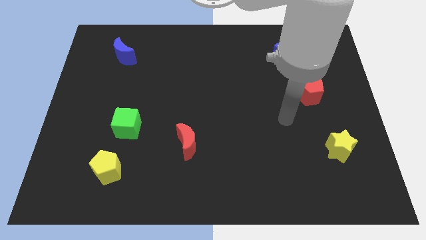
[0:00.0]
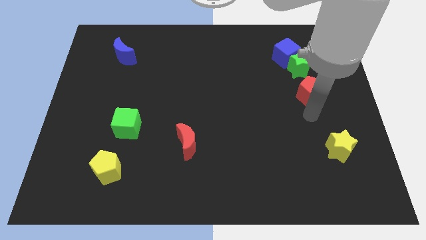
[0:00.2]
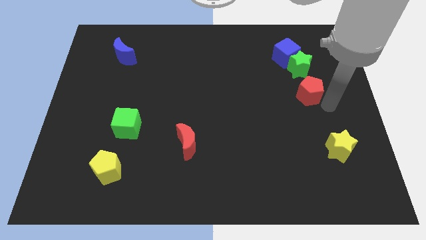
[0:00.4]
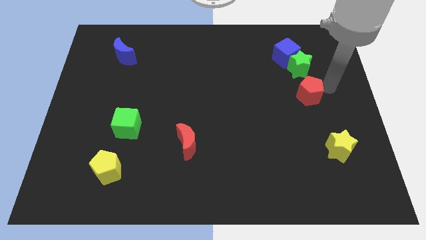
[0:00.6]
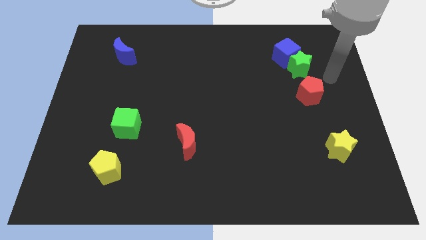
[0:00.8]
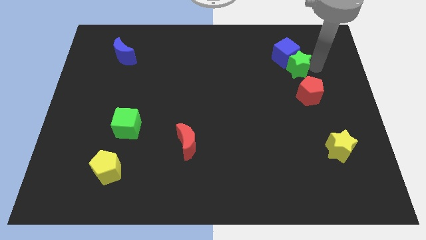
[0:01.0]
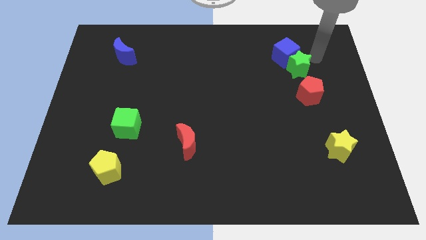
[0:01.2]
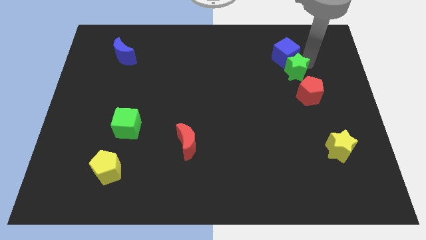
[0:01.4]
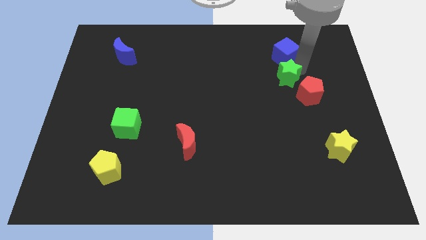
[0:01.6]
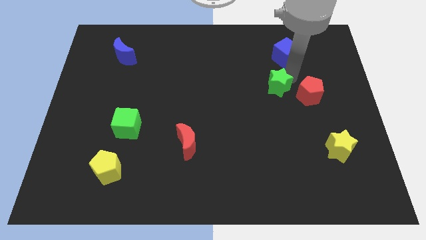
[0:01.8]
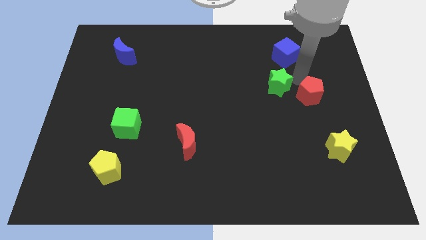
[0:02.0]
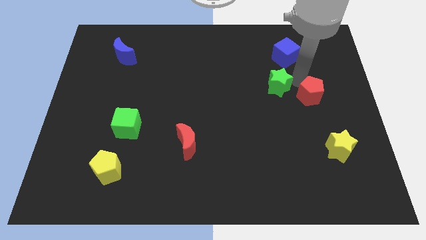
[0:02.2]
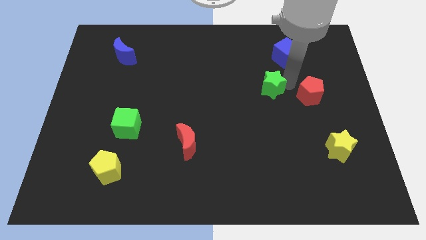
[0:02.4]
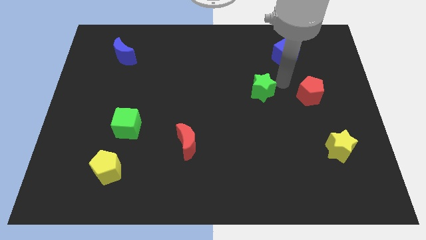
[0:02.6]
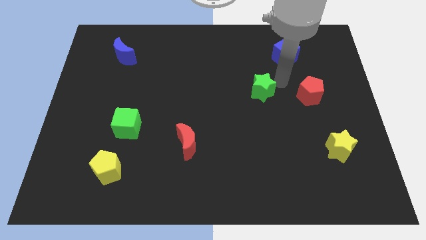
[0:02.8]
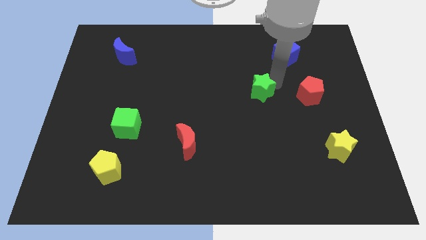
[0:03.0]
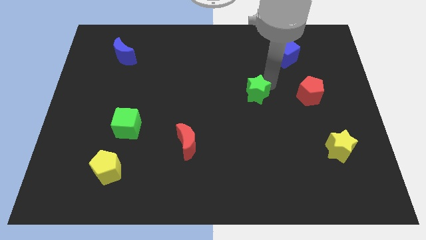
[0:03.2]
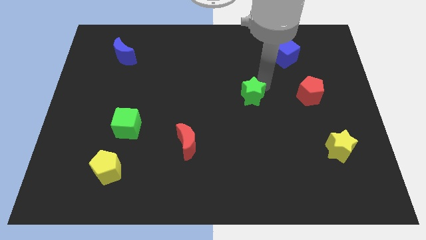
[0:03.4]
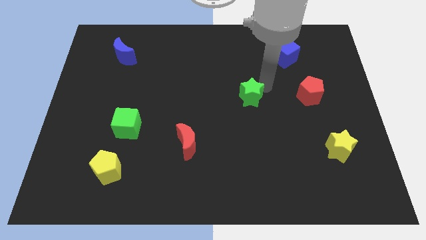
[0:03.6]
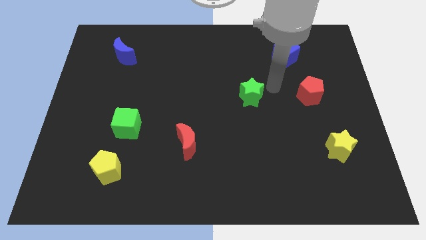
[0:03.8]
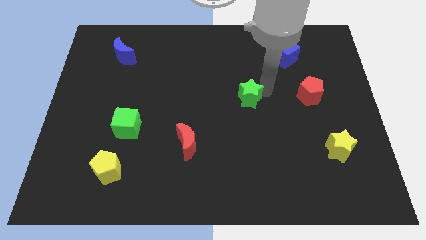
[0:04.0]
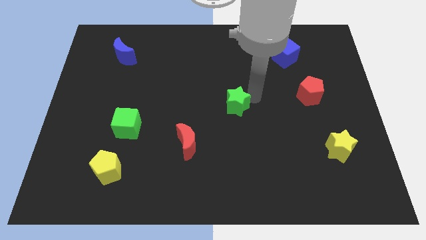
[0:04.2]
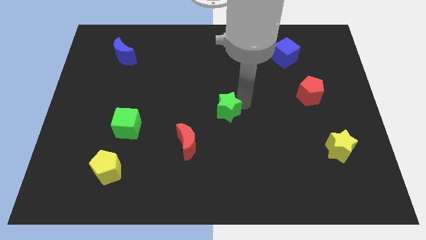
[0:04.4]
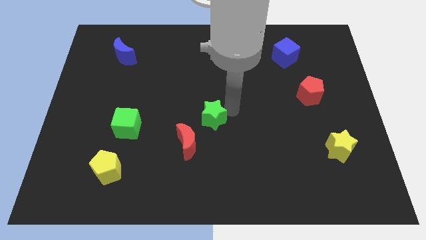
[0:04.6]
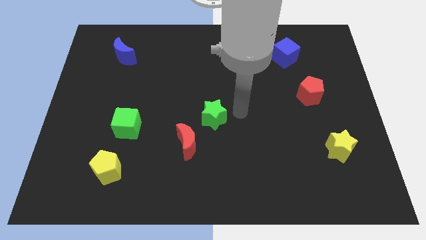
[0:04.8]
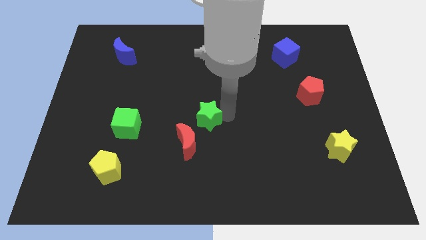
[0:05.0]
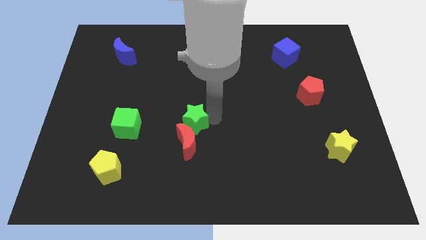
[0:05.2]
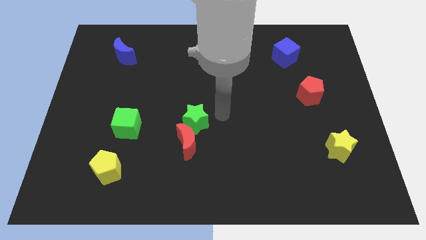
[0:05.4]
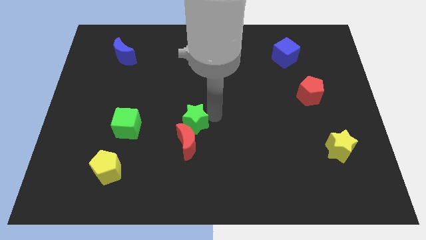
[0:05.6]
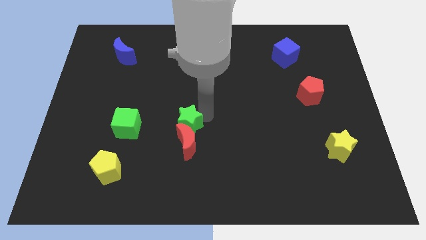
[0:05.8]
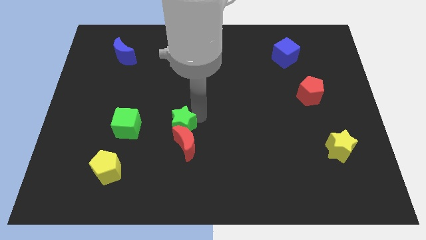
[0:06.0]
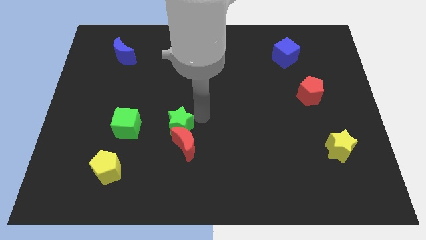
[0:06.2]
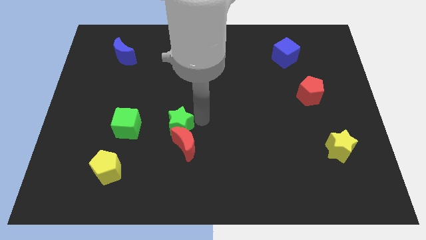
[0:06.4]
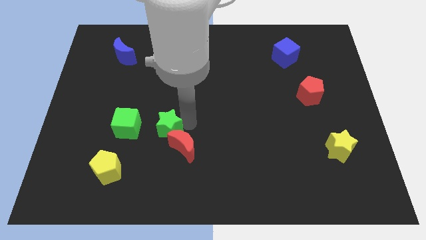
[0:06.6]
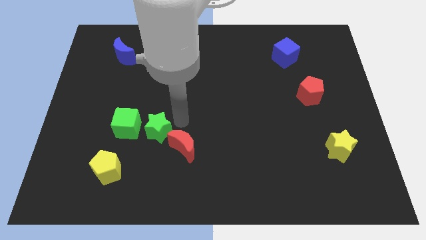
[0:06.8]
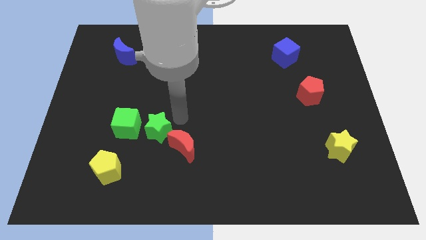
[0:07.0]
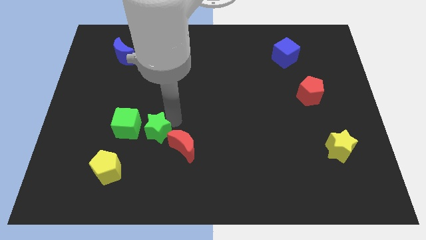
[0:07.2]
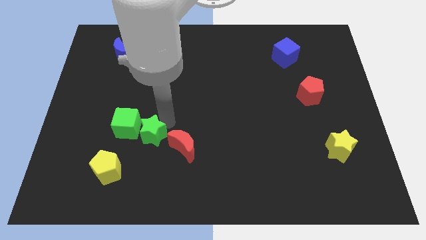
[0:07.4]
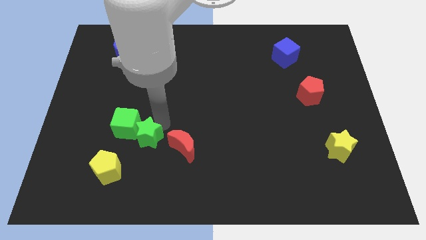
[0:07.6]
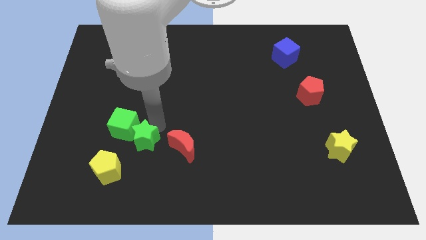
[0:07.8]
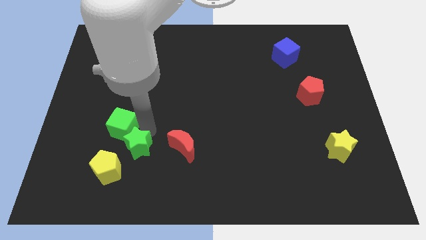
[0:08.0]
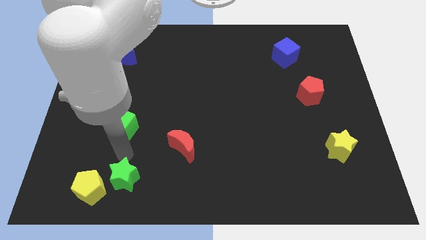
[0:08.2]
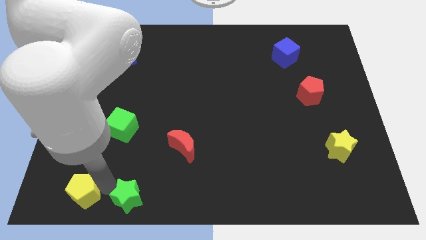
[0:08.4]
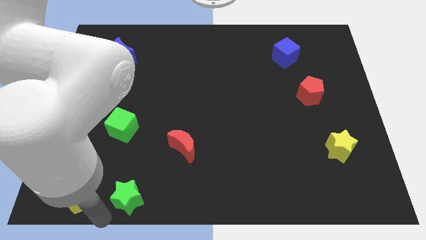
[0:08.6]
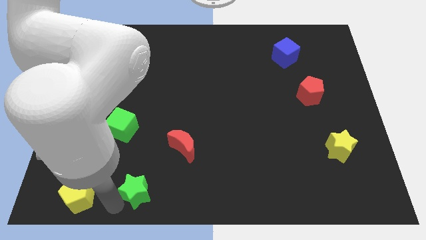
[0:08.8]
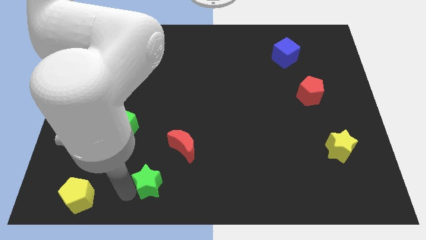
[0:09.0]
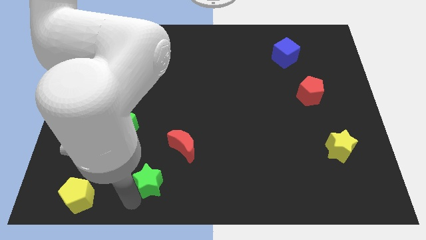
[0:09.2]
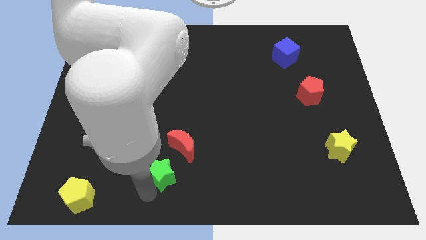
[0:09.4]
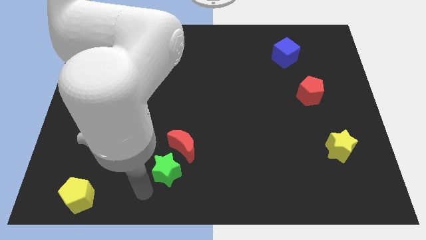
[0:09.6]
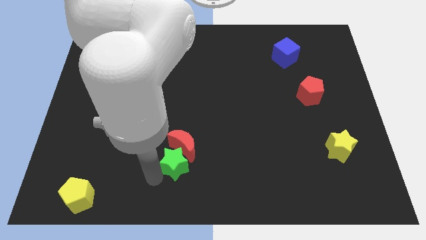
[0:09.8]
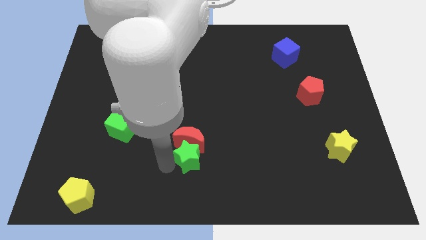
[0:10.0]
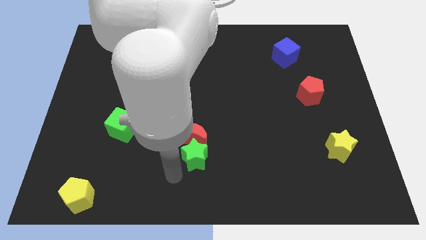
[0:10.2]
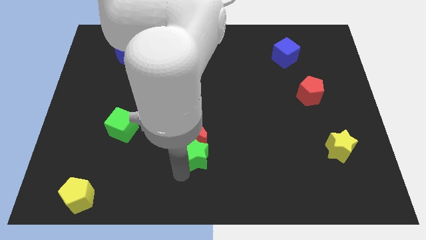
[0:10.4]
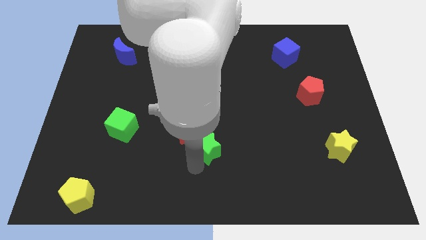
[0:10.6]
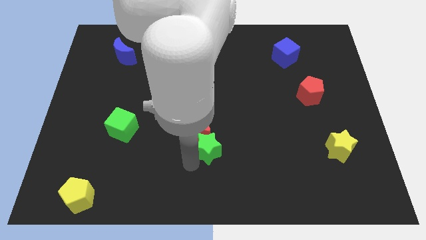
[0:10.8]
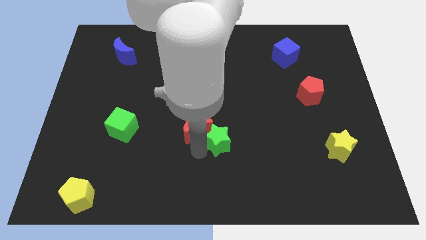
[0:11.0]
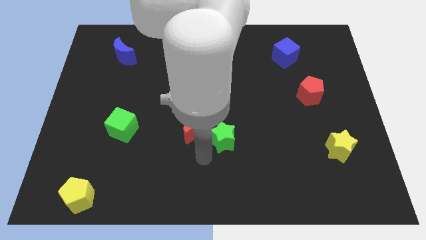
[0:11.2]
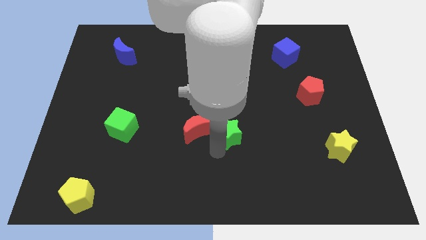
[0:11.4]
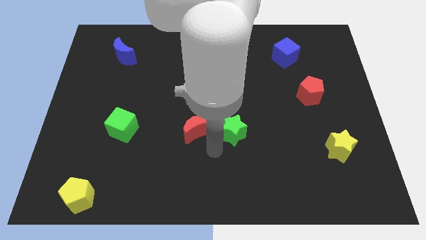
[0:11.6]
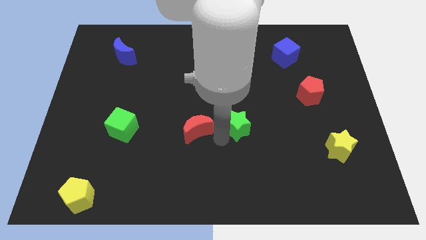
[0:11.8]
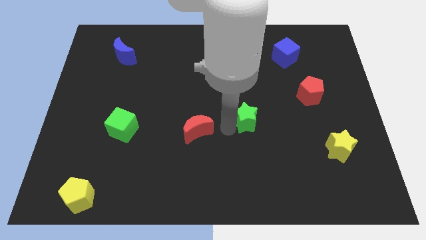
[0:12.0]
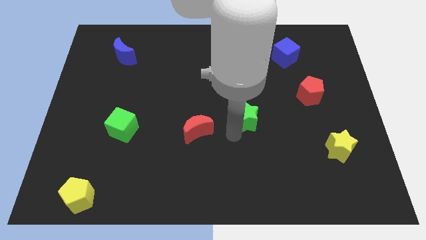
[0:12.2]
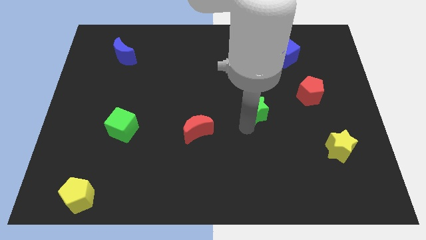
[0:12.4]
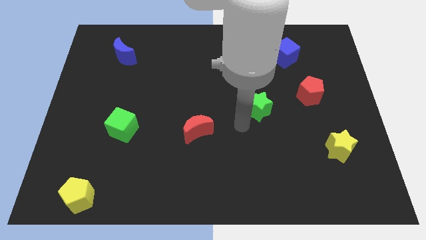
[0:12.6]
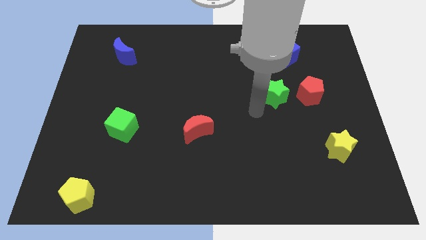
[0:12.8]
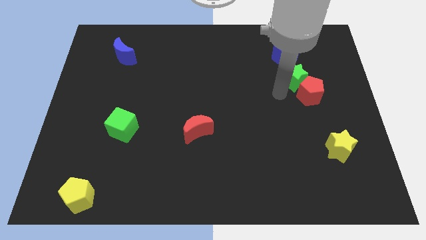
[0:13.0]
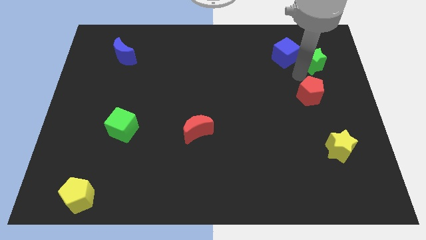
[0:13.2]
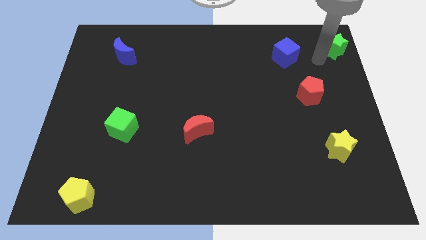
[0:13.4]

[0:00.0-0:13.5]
slide the green star to the upper right corner
